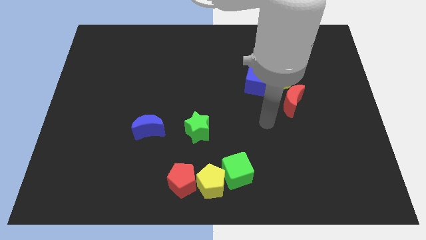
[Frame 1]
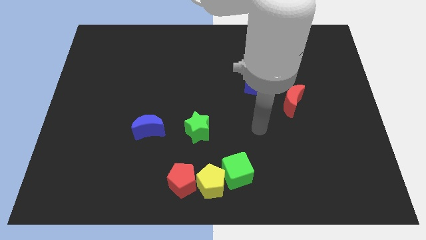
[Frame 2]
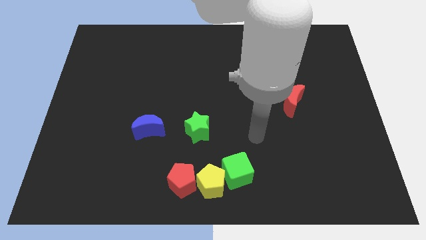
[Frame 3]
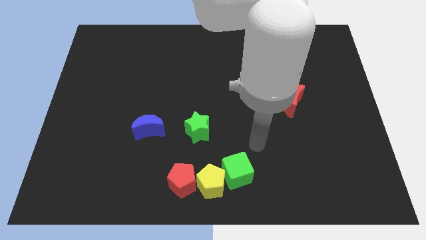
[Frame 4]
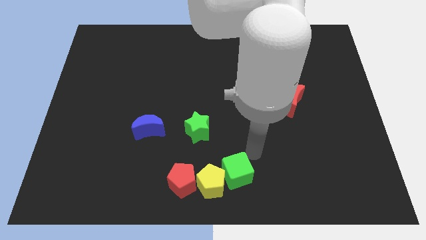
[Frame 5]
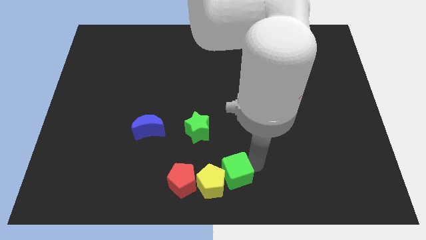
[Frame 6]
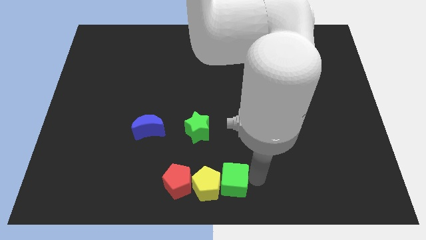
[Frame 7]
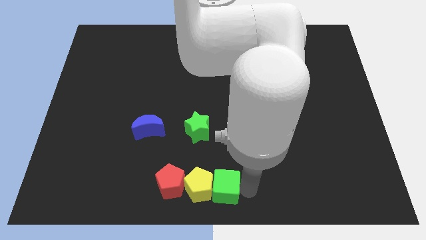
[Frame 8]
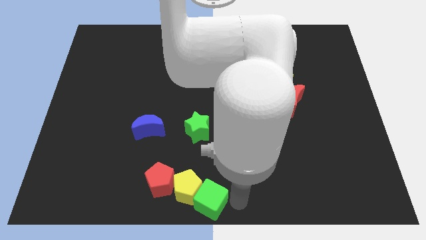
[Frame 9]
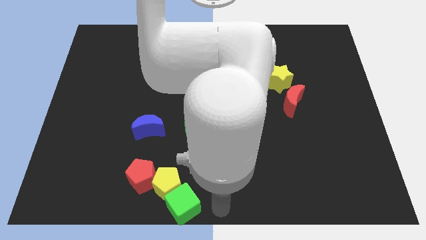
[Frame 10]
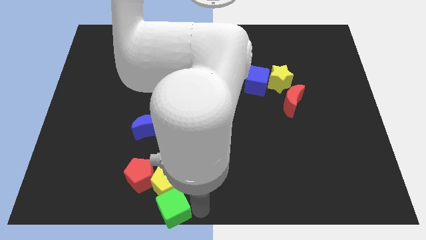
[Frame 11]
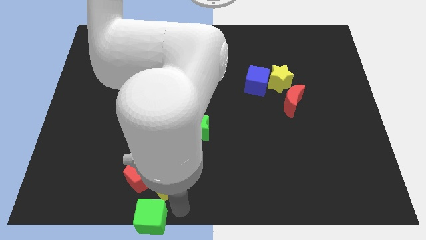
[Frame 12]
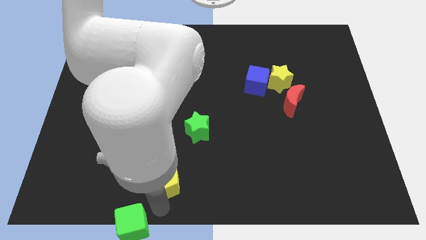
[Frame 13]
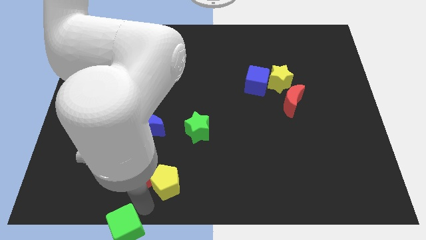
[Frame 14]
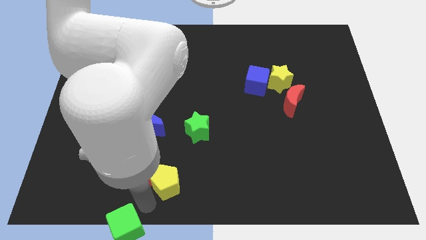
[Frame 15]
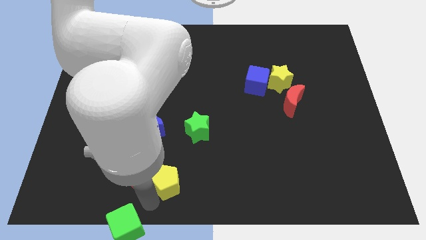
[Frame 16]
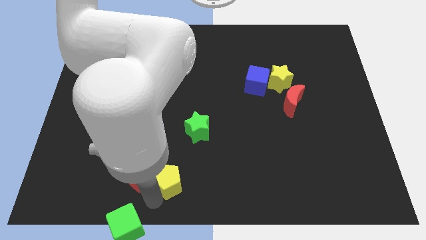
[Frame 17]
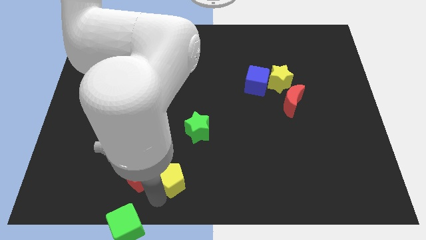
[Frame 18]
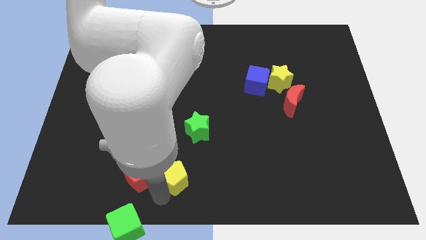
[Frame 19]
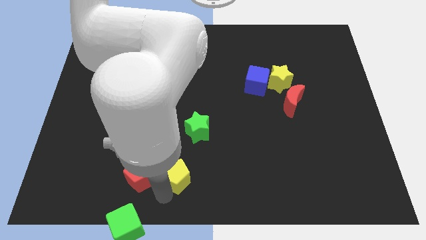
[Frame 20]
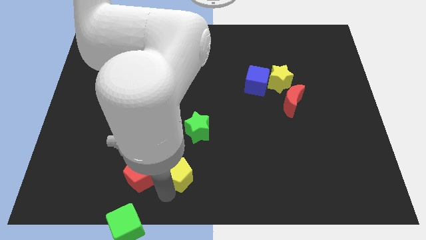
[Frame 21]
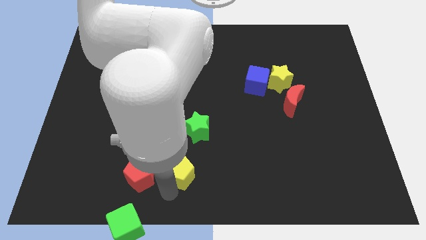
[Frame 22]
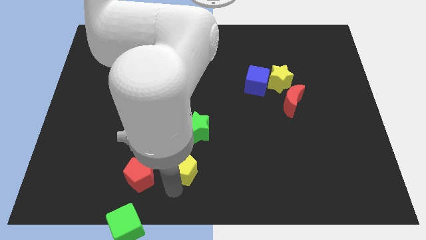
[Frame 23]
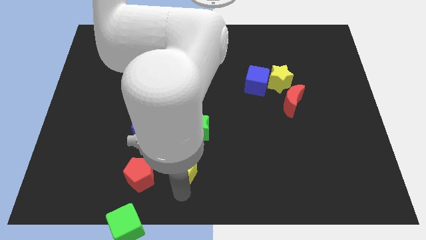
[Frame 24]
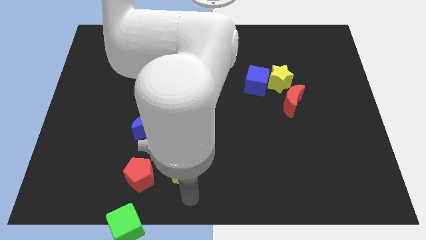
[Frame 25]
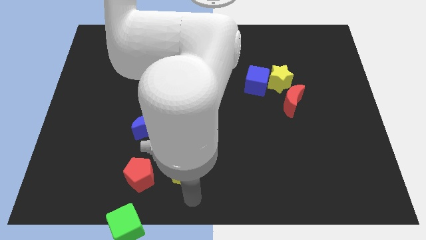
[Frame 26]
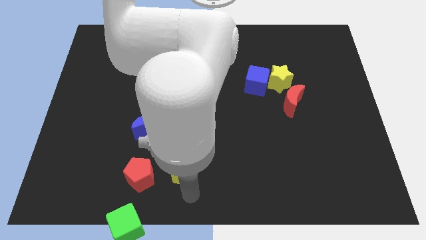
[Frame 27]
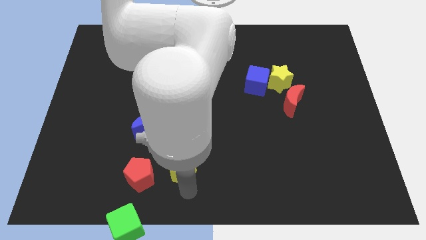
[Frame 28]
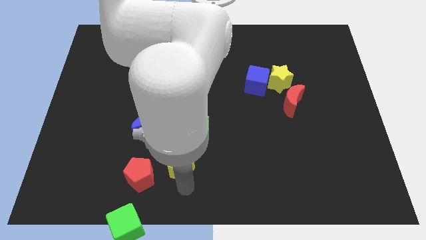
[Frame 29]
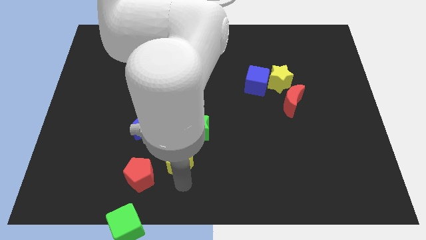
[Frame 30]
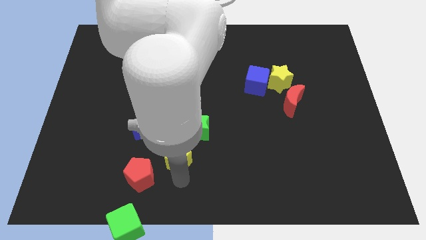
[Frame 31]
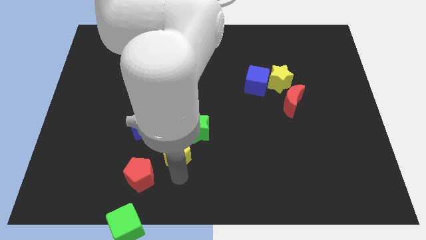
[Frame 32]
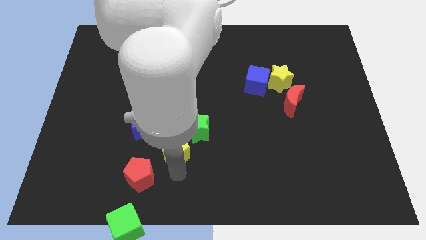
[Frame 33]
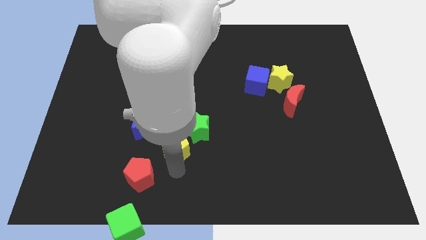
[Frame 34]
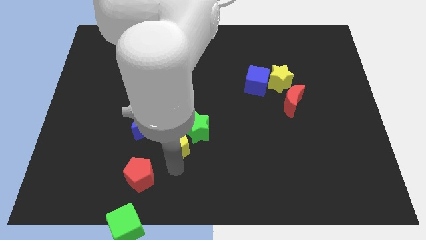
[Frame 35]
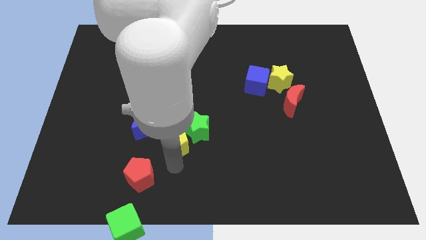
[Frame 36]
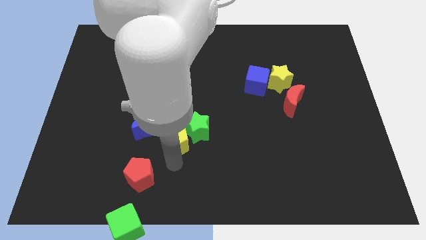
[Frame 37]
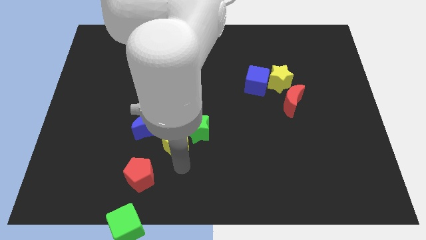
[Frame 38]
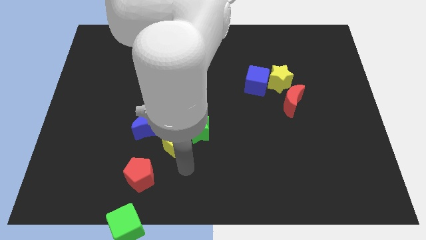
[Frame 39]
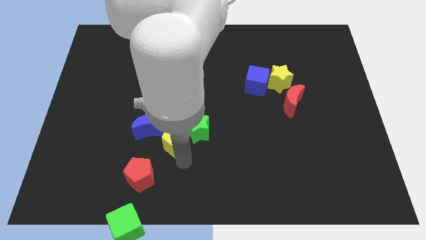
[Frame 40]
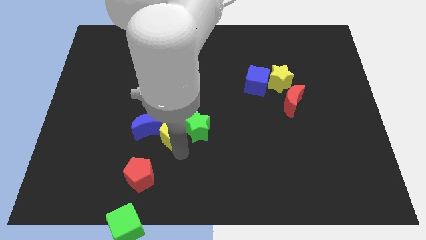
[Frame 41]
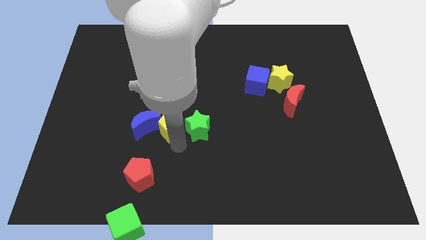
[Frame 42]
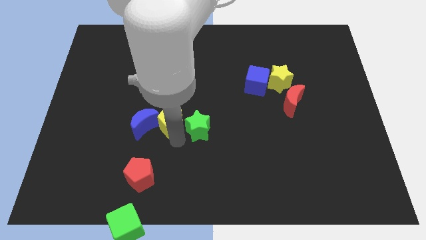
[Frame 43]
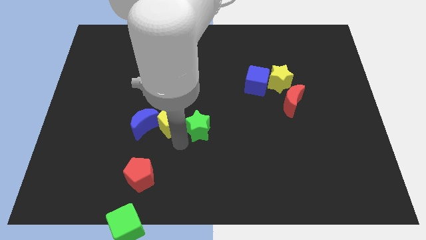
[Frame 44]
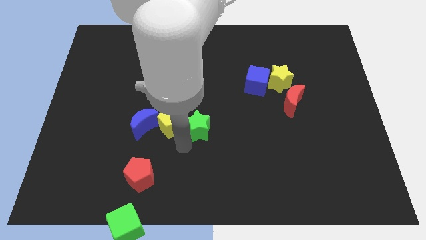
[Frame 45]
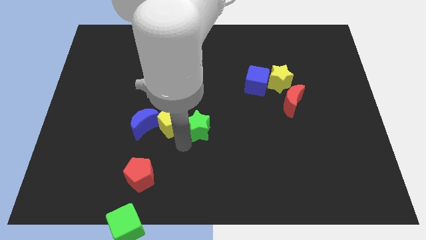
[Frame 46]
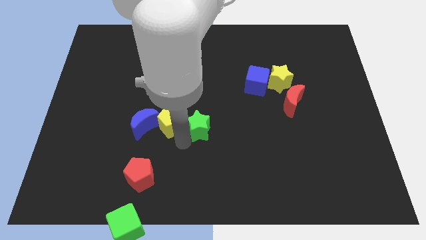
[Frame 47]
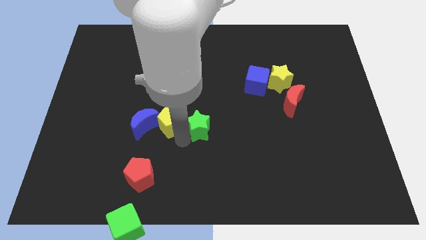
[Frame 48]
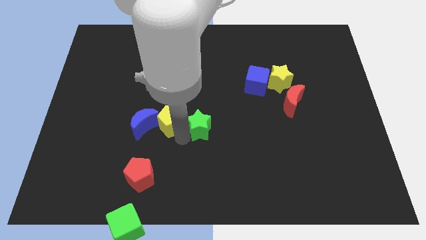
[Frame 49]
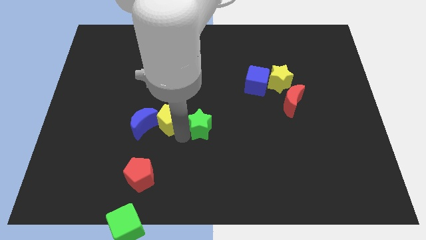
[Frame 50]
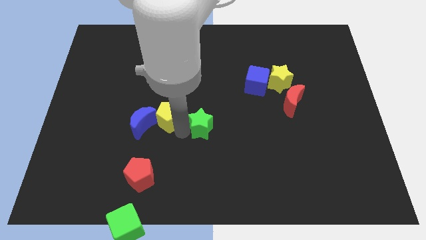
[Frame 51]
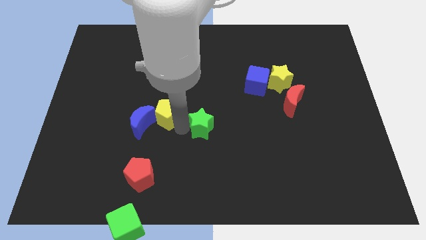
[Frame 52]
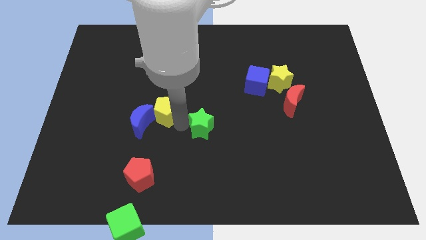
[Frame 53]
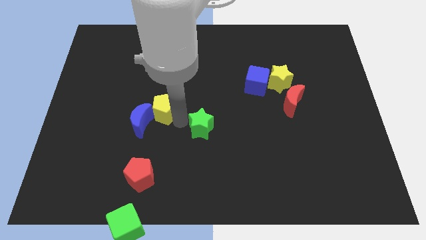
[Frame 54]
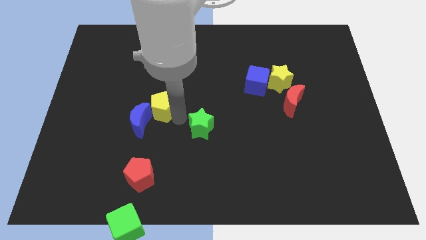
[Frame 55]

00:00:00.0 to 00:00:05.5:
push the yellow pentagon up and to the left

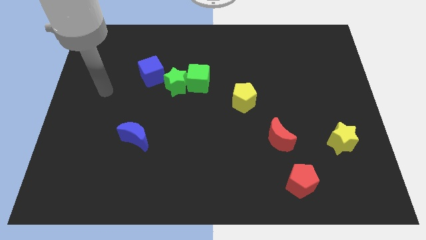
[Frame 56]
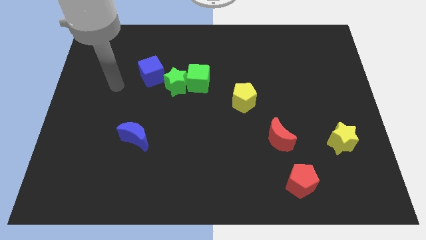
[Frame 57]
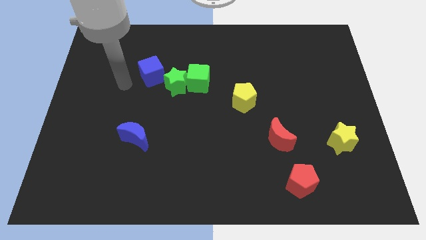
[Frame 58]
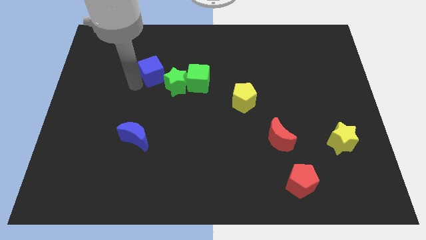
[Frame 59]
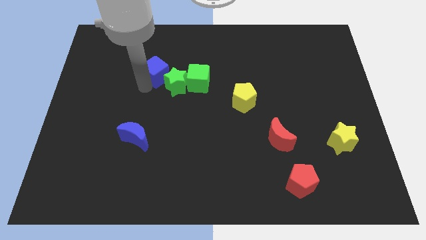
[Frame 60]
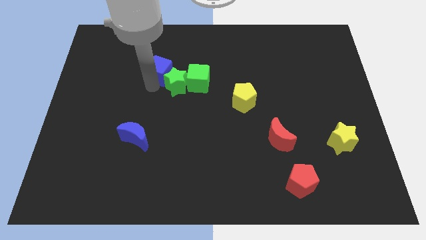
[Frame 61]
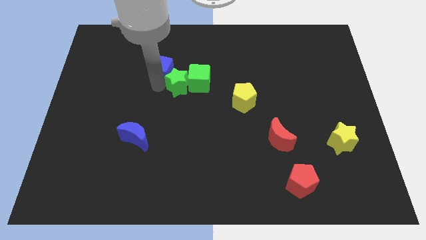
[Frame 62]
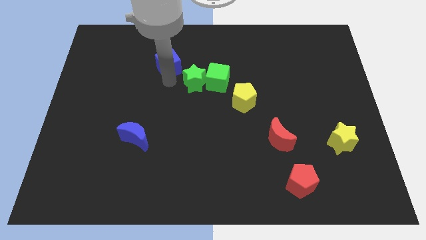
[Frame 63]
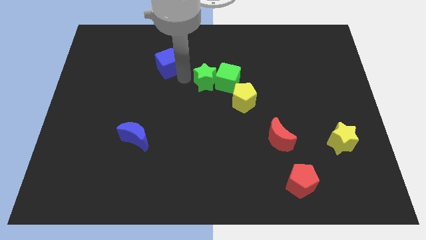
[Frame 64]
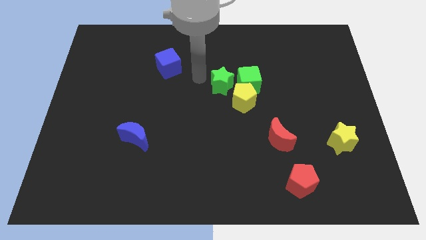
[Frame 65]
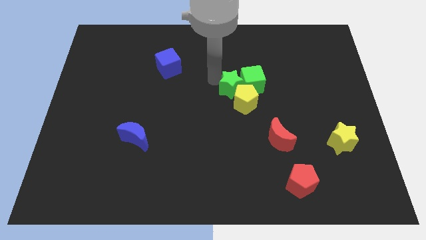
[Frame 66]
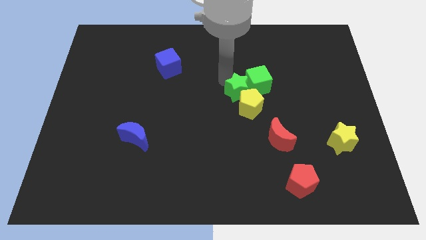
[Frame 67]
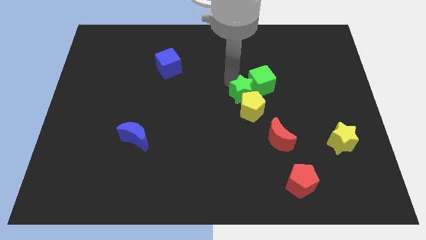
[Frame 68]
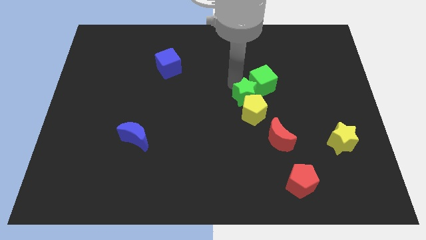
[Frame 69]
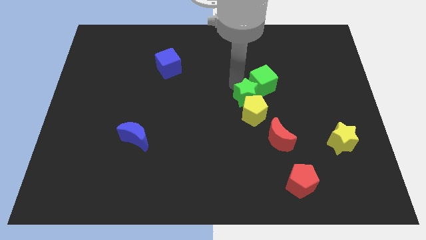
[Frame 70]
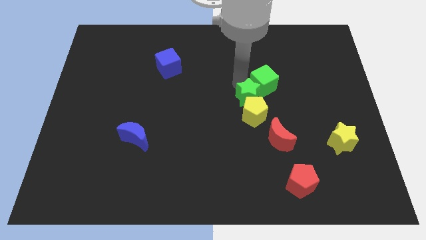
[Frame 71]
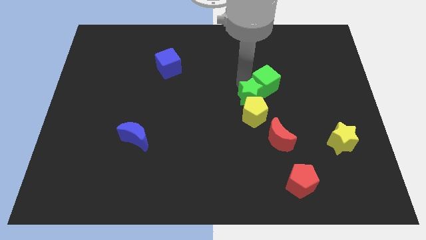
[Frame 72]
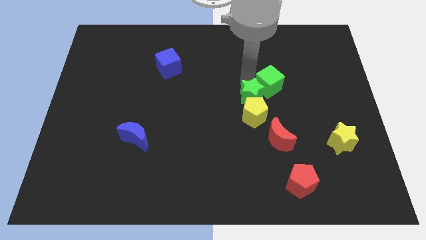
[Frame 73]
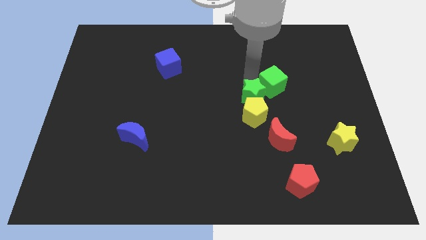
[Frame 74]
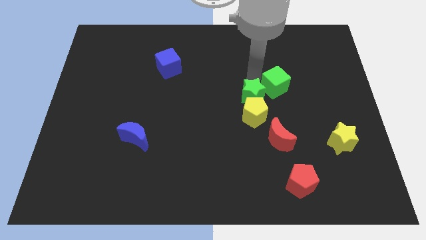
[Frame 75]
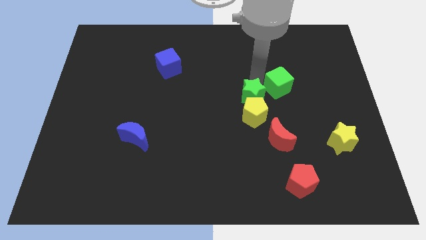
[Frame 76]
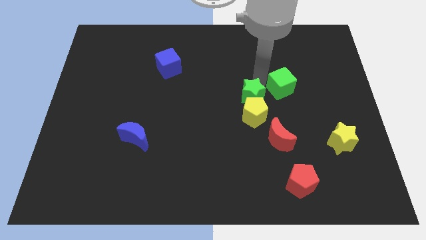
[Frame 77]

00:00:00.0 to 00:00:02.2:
slide the green cube right

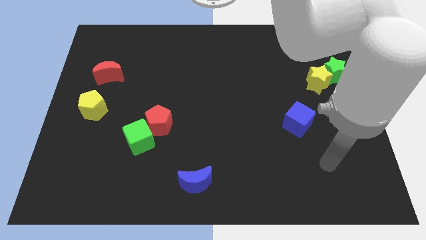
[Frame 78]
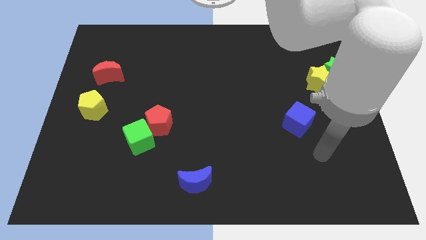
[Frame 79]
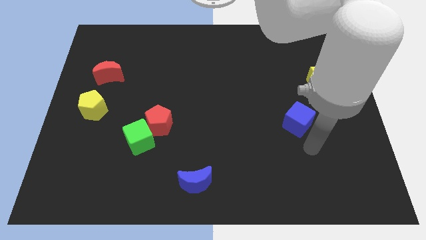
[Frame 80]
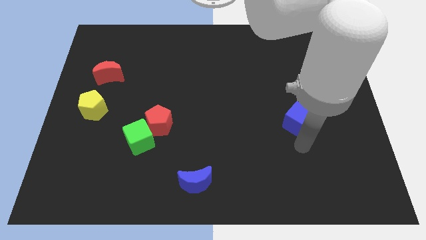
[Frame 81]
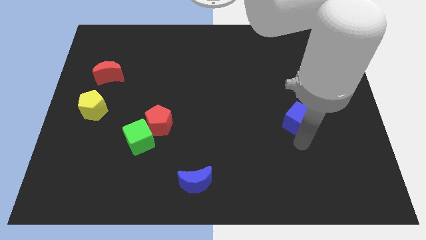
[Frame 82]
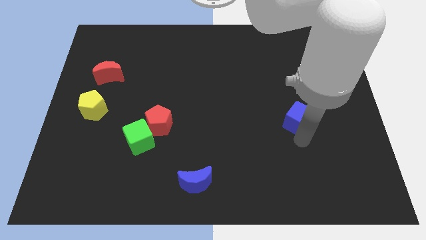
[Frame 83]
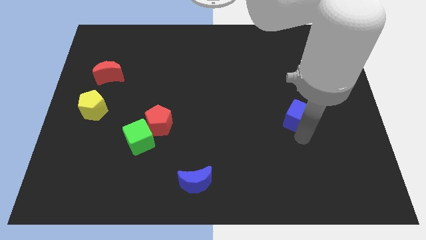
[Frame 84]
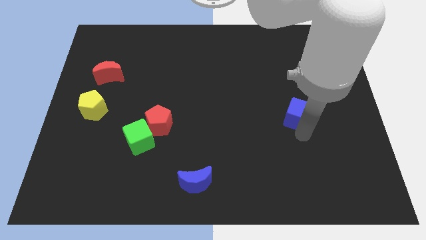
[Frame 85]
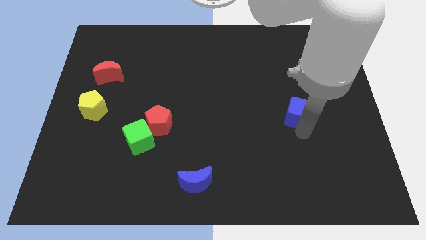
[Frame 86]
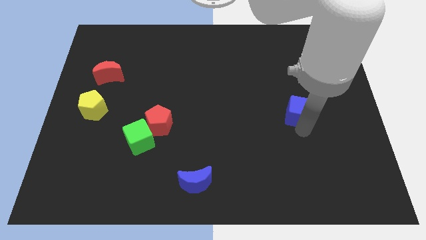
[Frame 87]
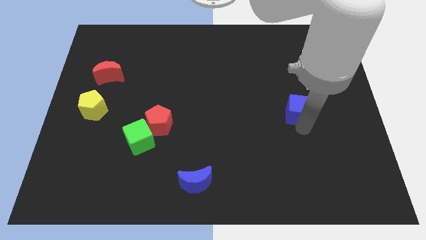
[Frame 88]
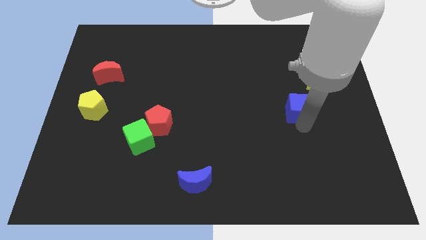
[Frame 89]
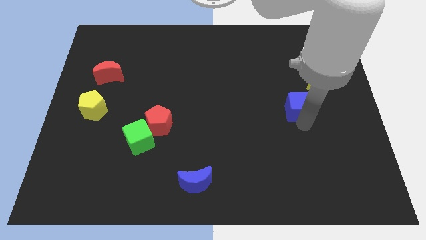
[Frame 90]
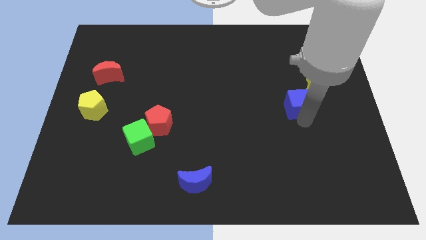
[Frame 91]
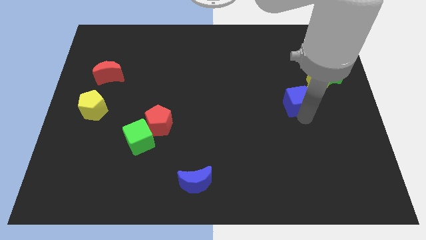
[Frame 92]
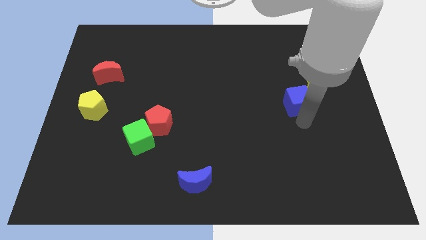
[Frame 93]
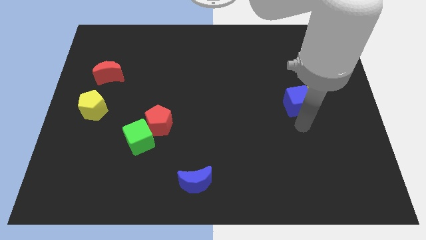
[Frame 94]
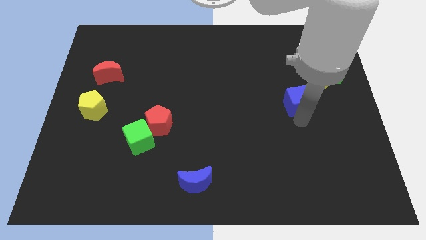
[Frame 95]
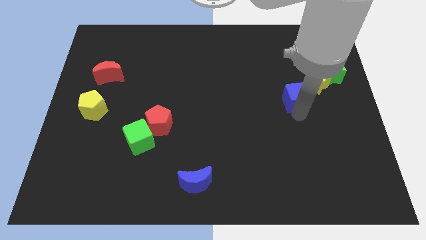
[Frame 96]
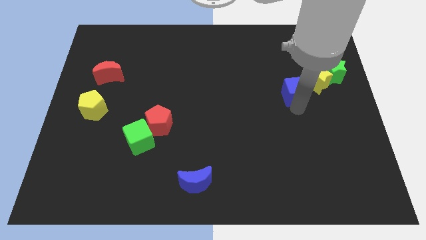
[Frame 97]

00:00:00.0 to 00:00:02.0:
move the blue cube a bit upwards
